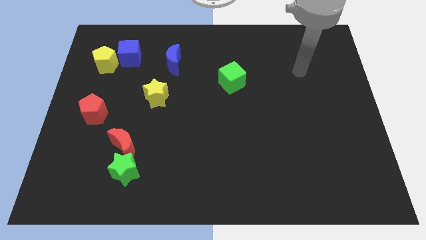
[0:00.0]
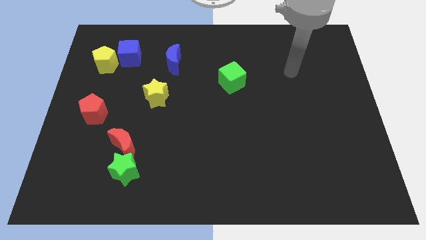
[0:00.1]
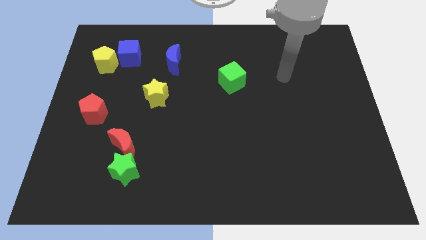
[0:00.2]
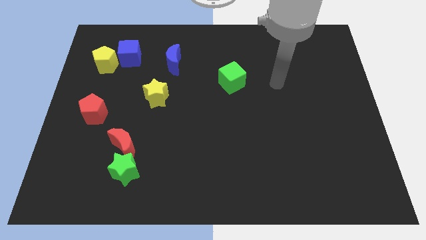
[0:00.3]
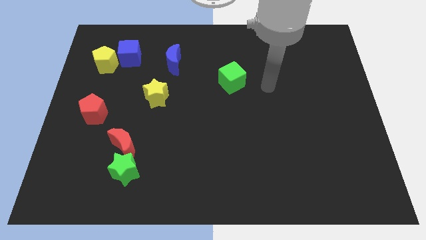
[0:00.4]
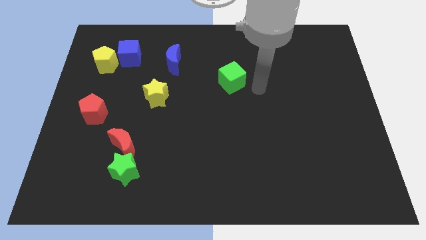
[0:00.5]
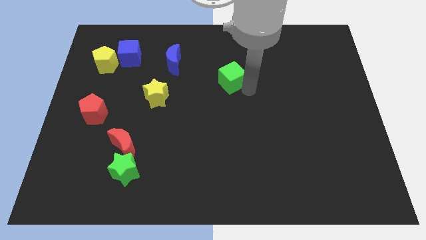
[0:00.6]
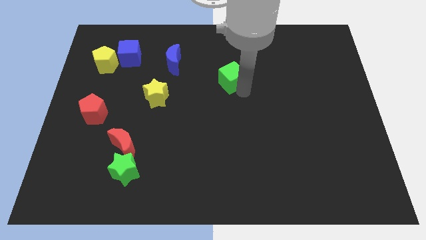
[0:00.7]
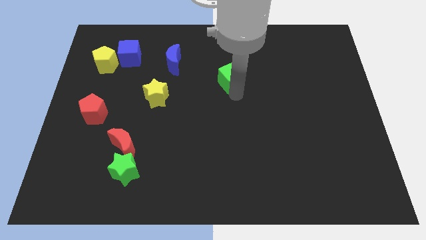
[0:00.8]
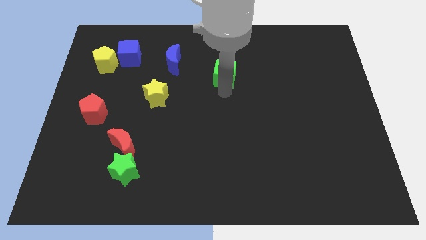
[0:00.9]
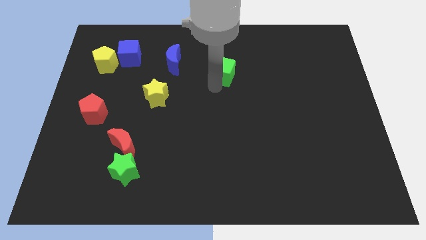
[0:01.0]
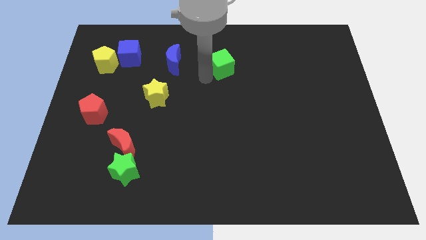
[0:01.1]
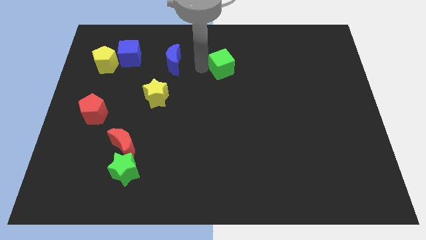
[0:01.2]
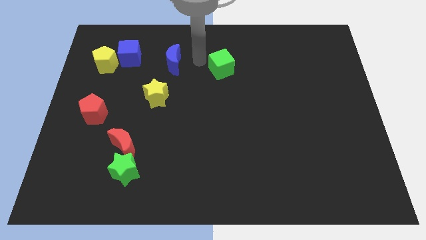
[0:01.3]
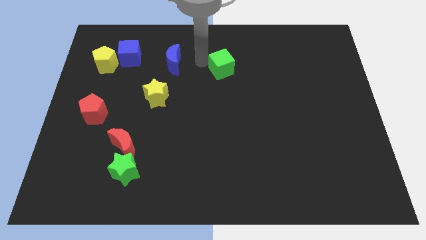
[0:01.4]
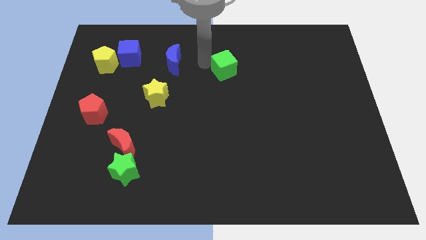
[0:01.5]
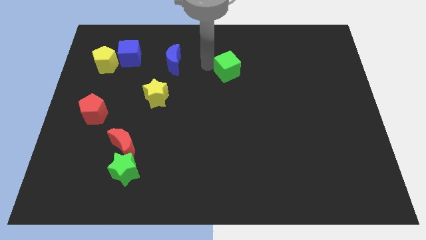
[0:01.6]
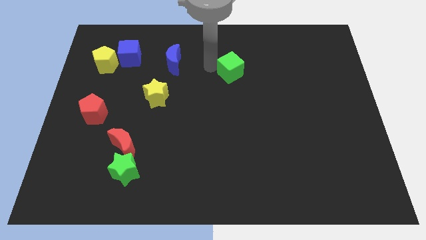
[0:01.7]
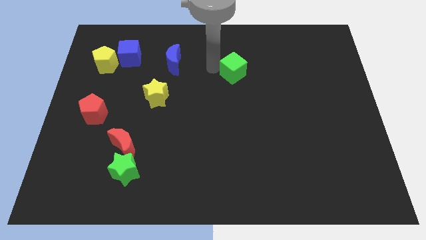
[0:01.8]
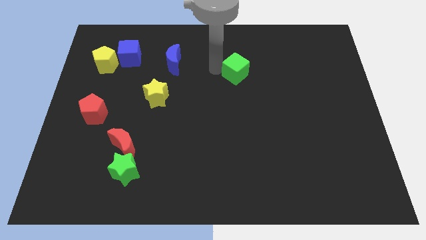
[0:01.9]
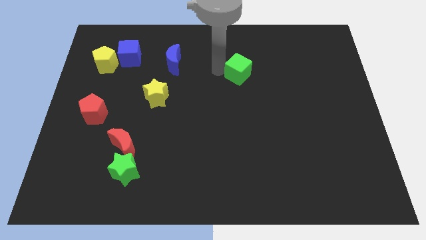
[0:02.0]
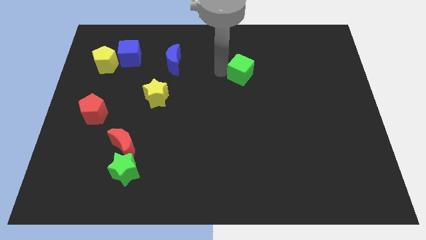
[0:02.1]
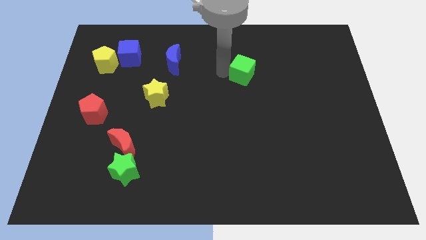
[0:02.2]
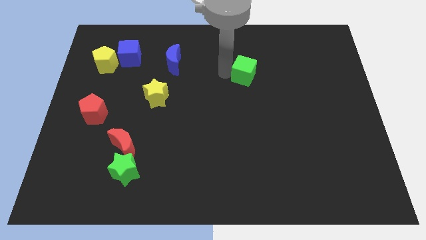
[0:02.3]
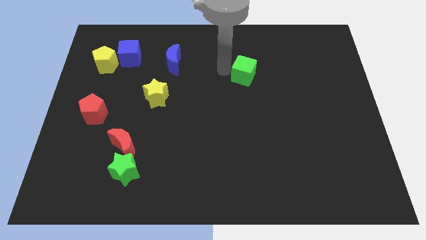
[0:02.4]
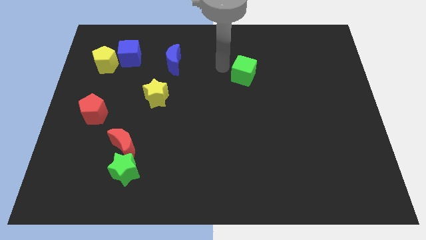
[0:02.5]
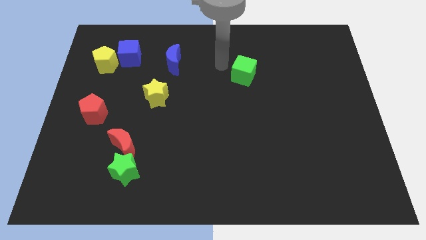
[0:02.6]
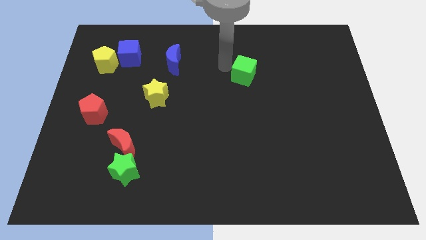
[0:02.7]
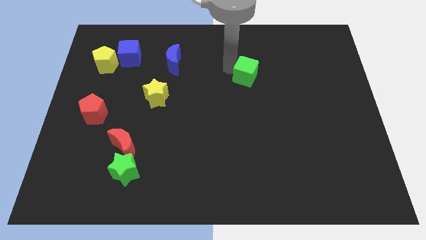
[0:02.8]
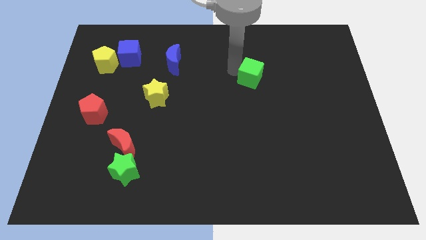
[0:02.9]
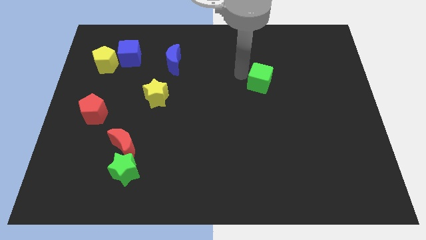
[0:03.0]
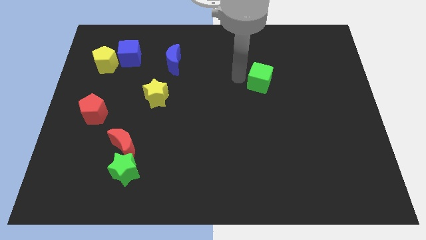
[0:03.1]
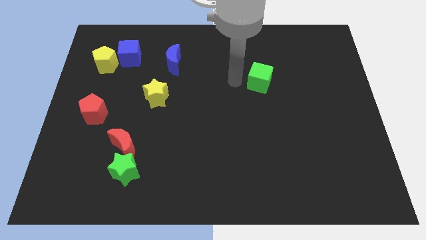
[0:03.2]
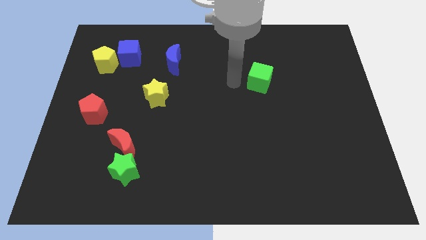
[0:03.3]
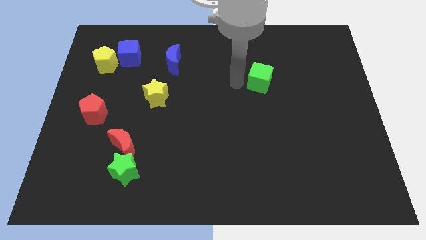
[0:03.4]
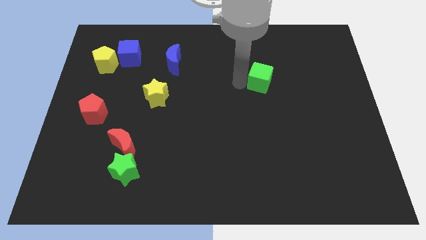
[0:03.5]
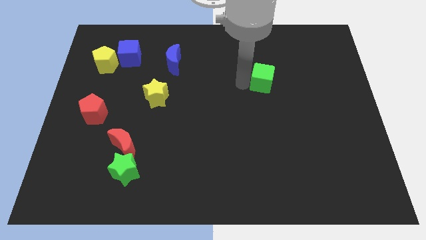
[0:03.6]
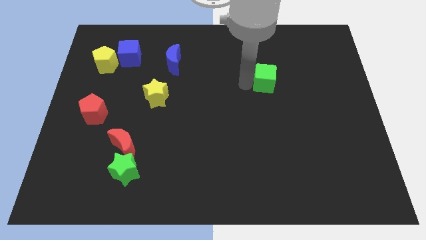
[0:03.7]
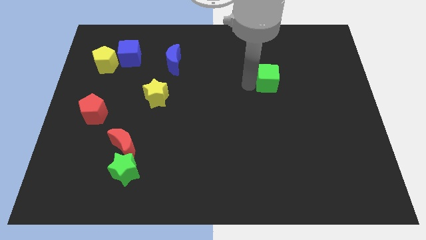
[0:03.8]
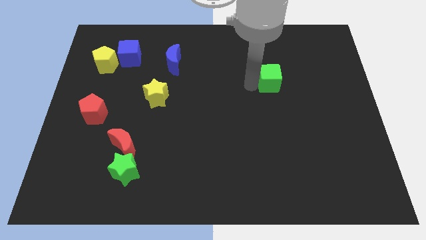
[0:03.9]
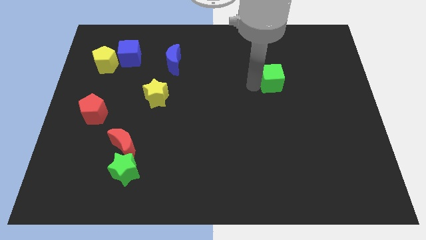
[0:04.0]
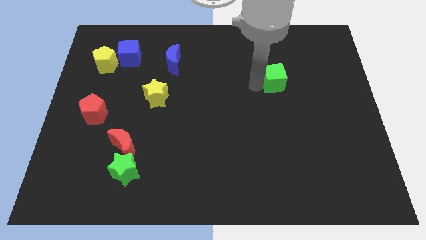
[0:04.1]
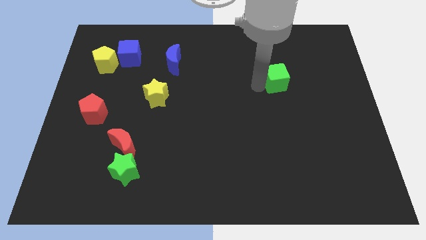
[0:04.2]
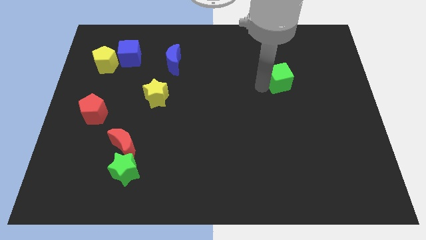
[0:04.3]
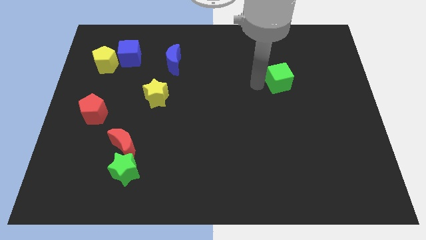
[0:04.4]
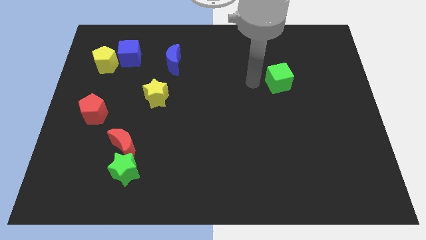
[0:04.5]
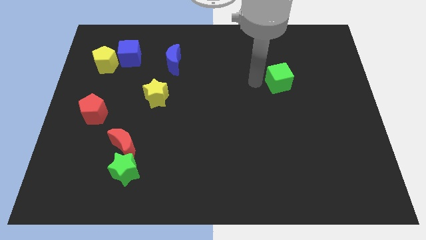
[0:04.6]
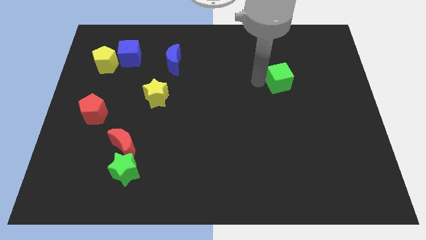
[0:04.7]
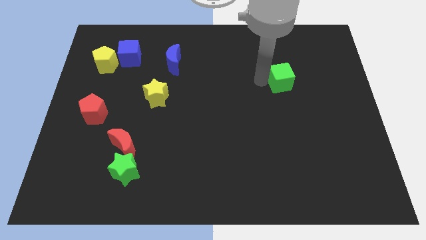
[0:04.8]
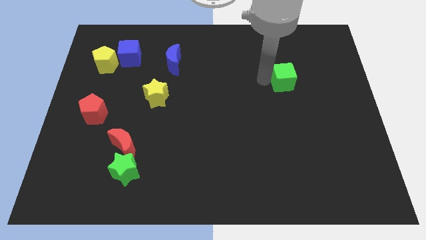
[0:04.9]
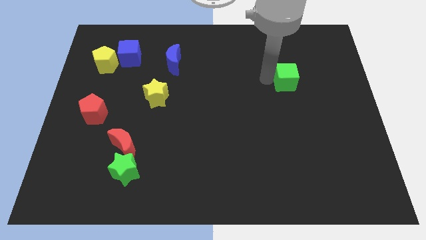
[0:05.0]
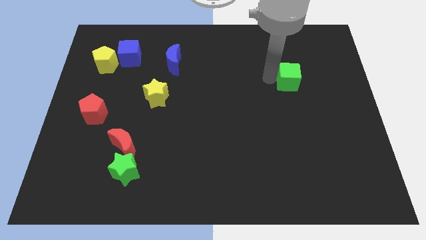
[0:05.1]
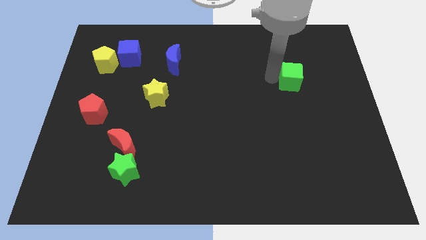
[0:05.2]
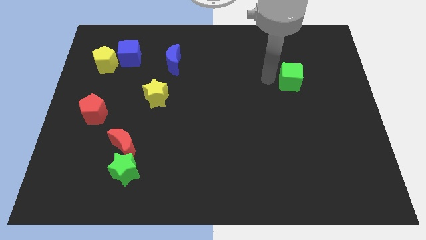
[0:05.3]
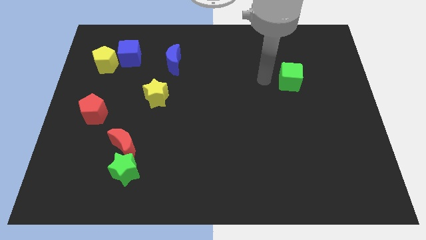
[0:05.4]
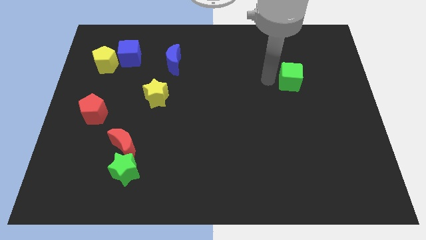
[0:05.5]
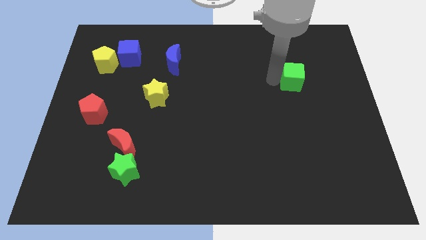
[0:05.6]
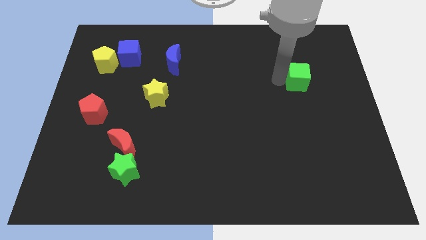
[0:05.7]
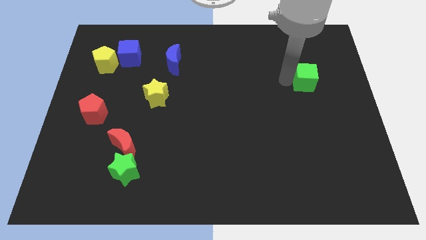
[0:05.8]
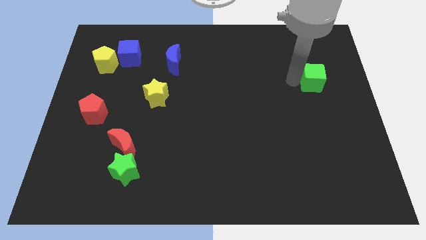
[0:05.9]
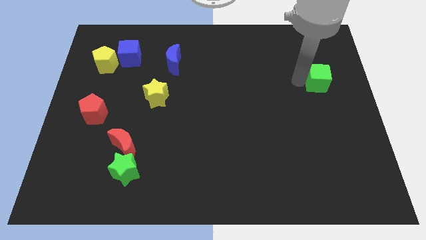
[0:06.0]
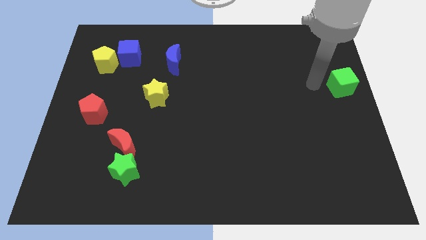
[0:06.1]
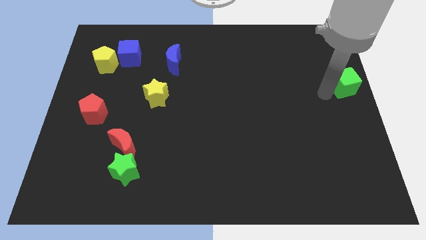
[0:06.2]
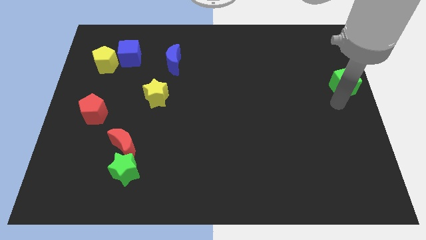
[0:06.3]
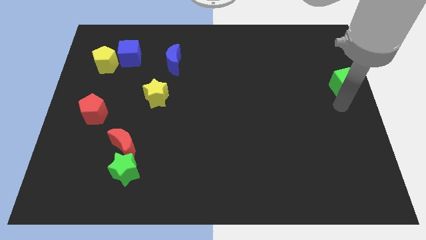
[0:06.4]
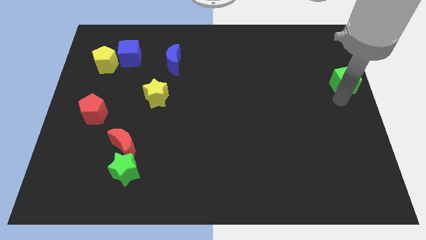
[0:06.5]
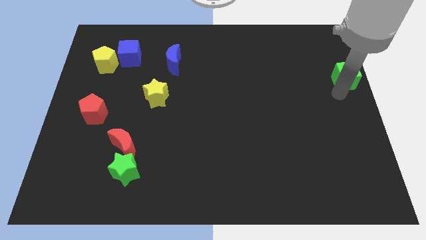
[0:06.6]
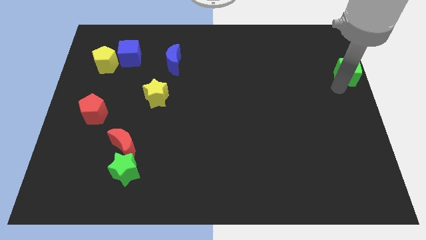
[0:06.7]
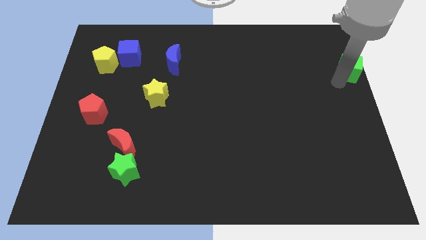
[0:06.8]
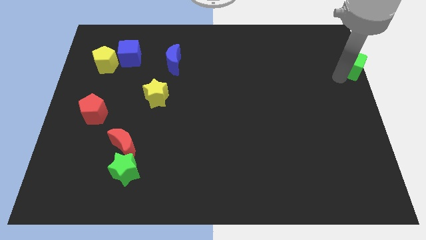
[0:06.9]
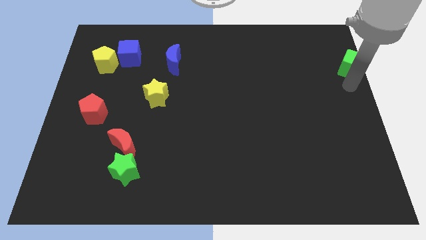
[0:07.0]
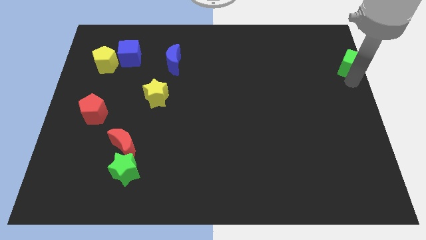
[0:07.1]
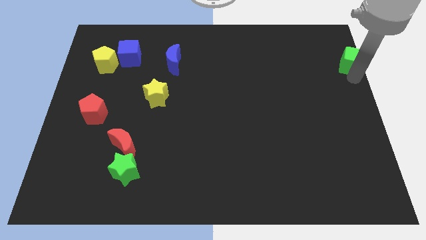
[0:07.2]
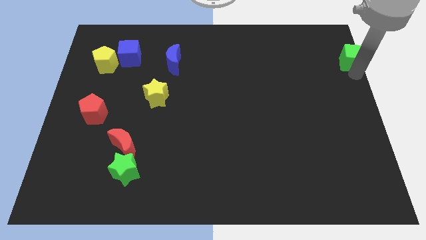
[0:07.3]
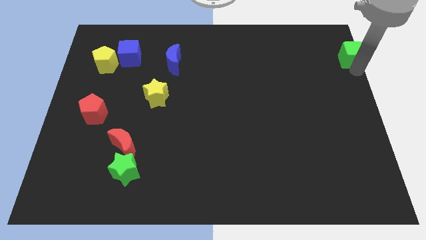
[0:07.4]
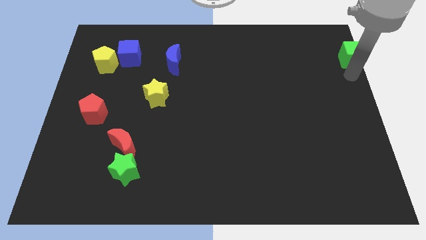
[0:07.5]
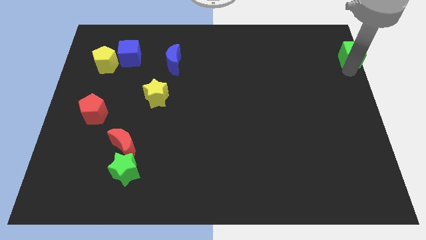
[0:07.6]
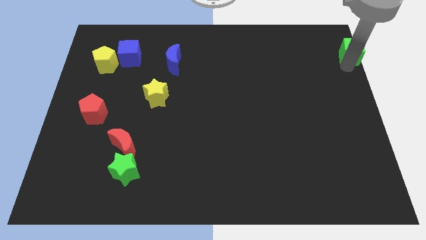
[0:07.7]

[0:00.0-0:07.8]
slide the green cube to the top right corner
